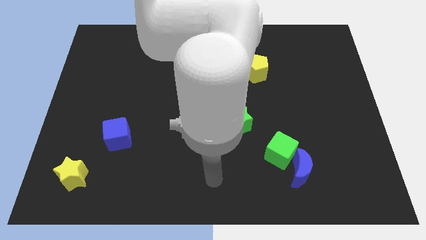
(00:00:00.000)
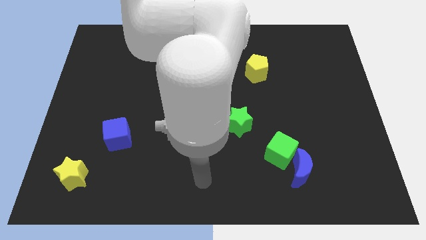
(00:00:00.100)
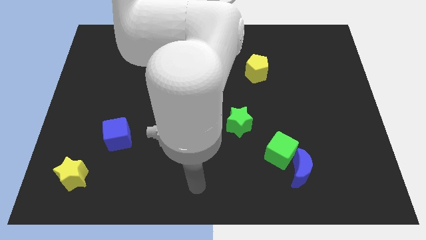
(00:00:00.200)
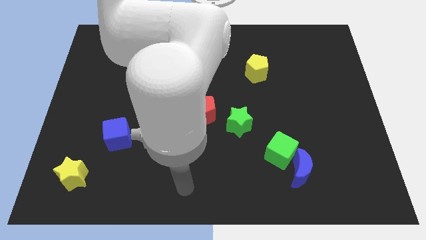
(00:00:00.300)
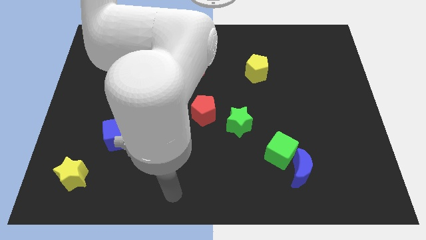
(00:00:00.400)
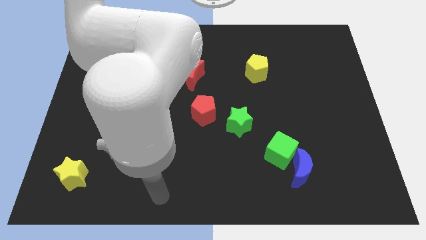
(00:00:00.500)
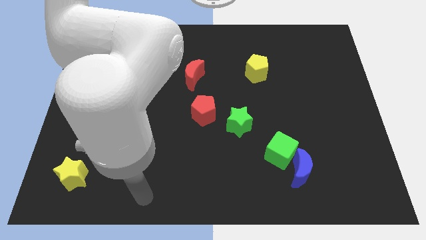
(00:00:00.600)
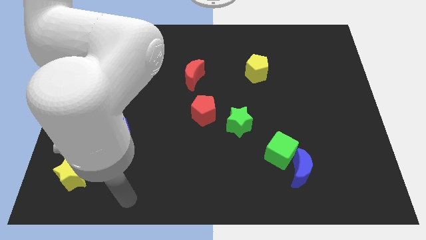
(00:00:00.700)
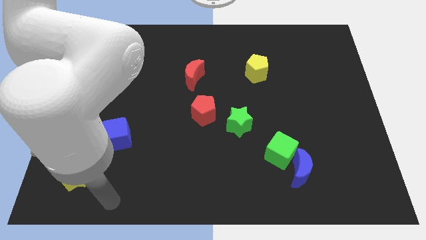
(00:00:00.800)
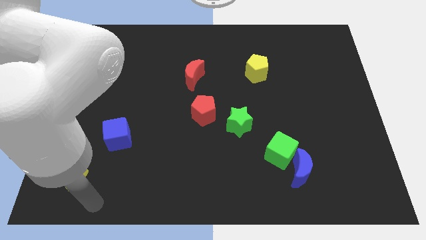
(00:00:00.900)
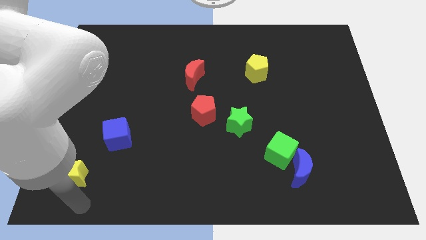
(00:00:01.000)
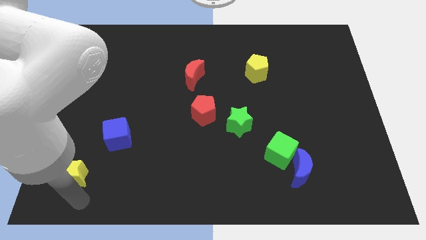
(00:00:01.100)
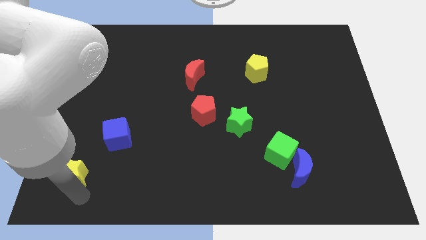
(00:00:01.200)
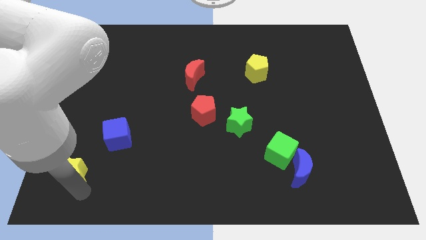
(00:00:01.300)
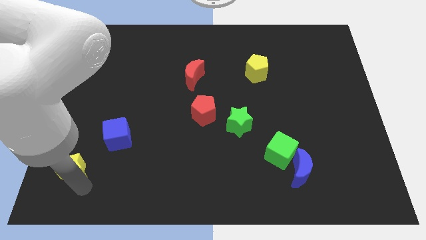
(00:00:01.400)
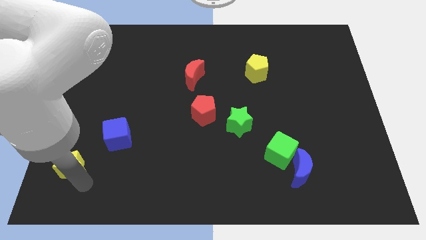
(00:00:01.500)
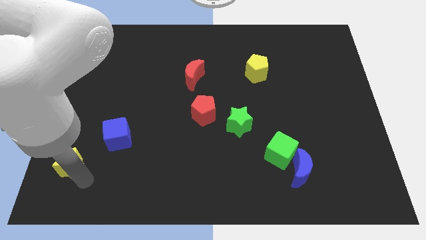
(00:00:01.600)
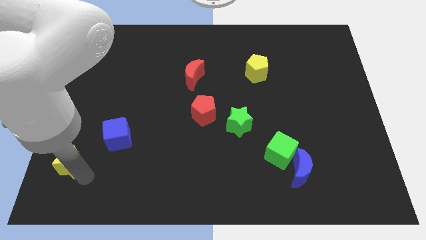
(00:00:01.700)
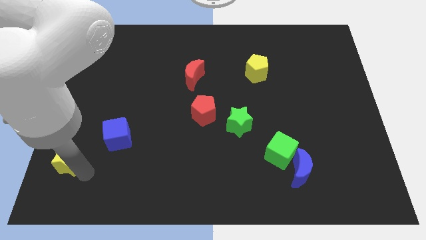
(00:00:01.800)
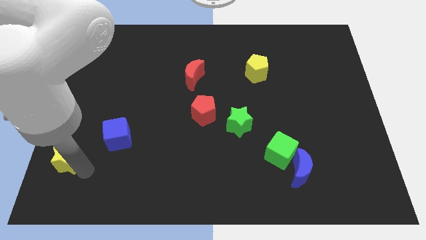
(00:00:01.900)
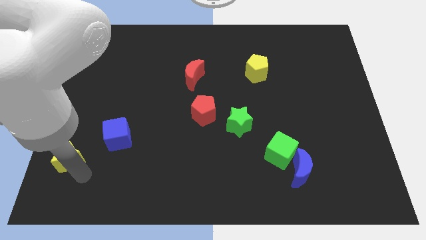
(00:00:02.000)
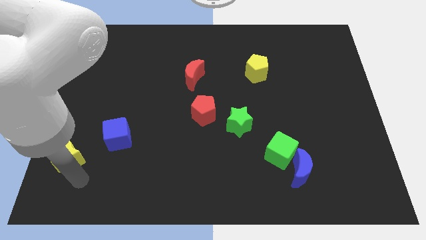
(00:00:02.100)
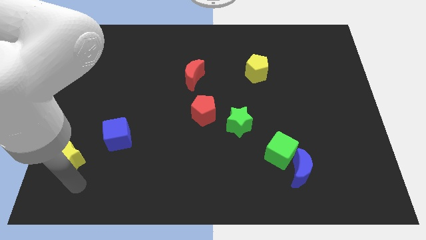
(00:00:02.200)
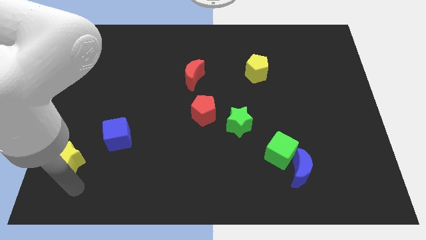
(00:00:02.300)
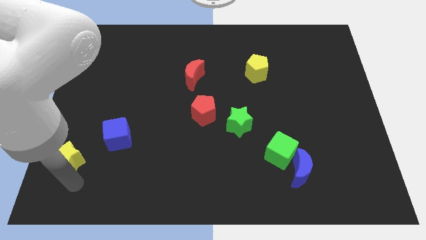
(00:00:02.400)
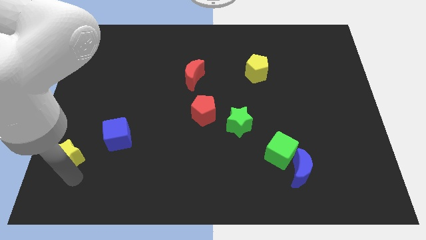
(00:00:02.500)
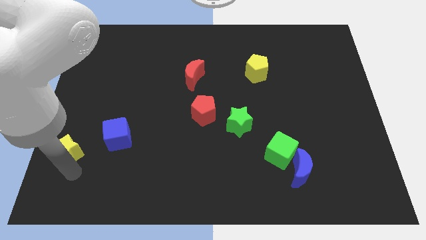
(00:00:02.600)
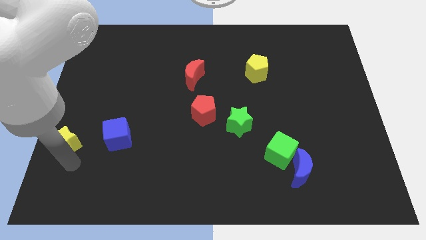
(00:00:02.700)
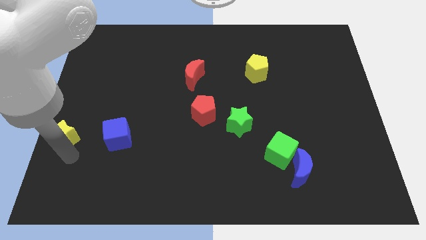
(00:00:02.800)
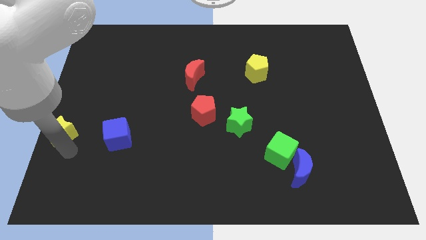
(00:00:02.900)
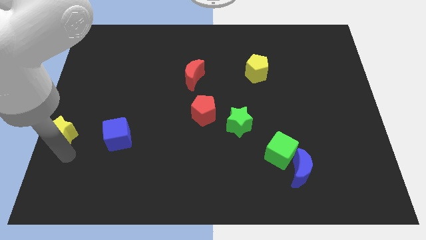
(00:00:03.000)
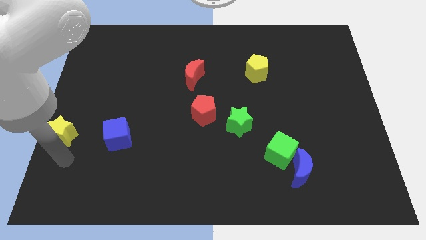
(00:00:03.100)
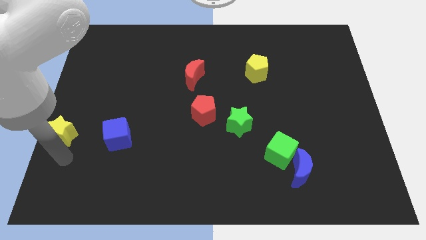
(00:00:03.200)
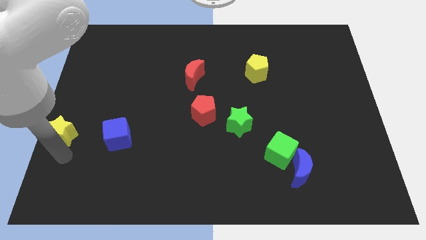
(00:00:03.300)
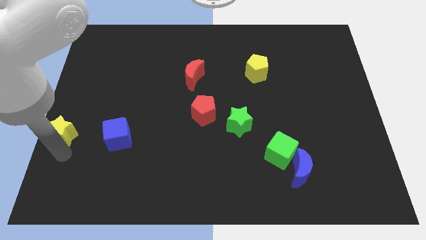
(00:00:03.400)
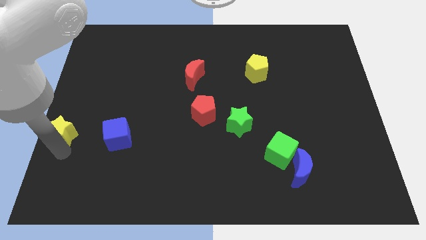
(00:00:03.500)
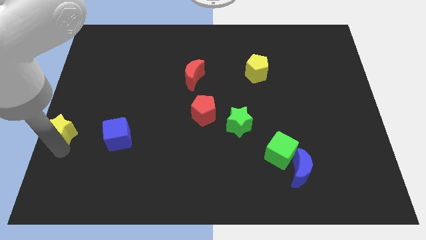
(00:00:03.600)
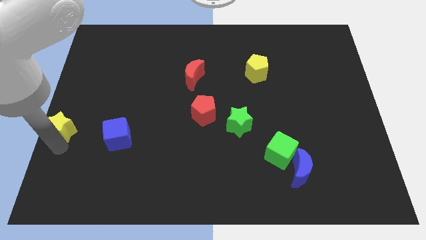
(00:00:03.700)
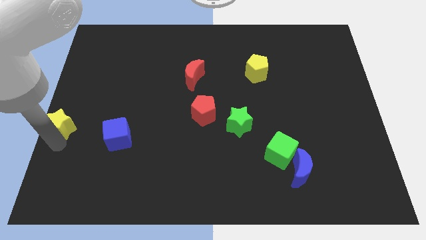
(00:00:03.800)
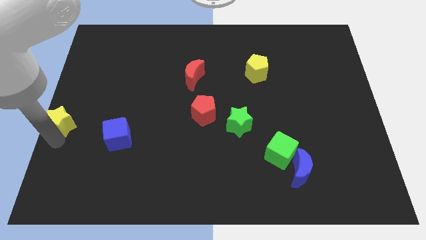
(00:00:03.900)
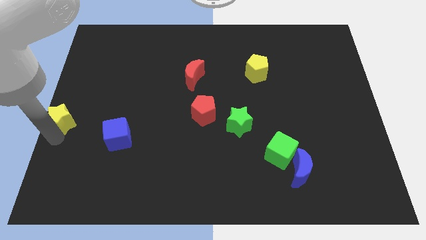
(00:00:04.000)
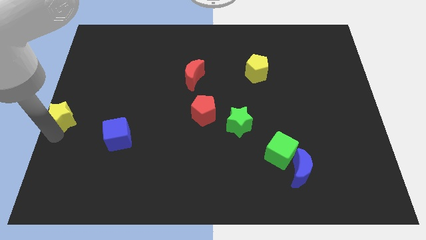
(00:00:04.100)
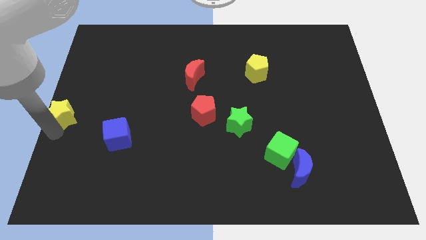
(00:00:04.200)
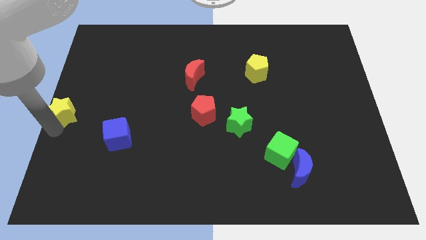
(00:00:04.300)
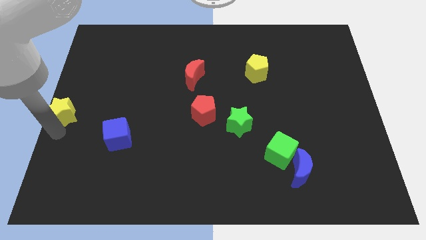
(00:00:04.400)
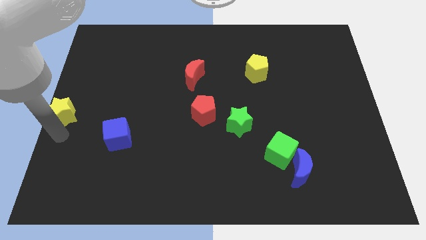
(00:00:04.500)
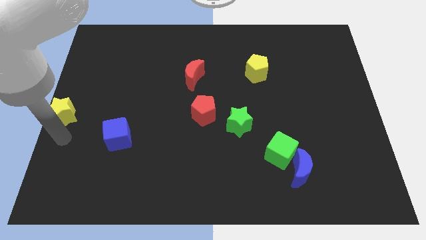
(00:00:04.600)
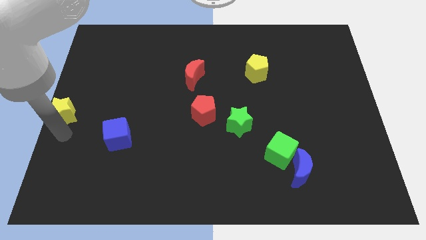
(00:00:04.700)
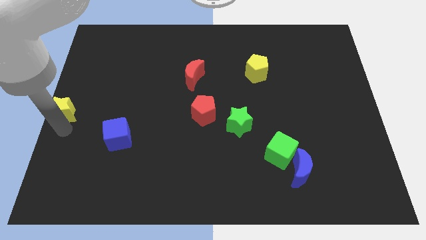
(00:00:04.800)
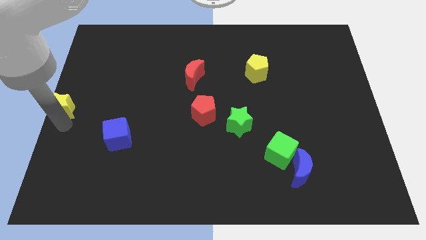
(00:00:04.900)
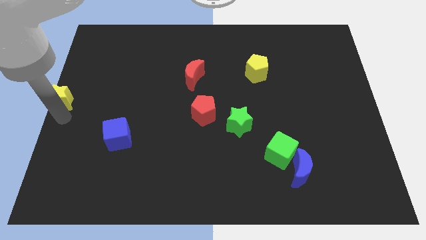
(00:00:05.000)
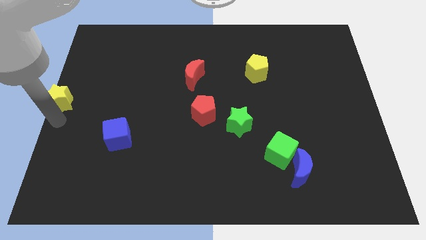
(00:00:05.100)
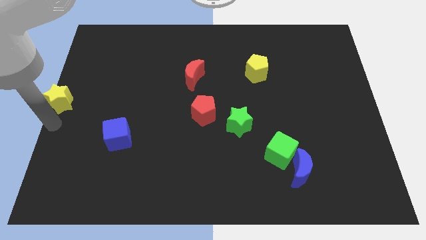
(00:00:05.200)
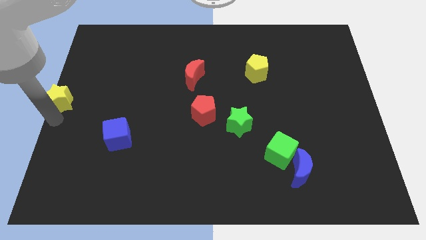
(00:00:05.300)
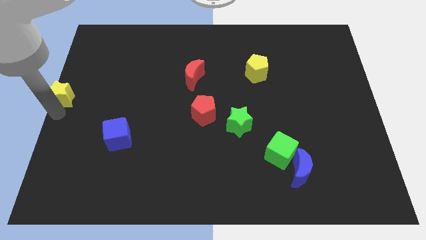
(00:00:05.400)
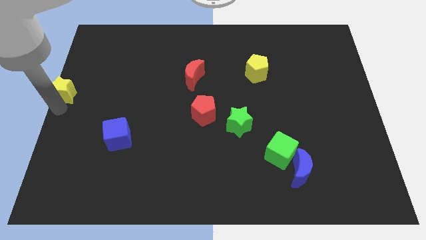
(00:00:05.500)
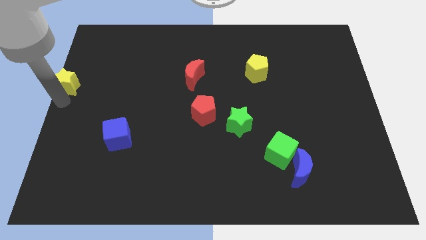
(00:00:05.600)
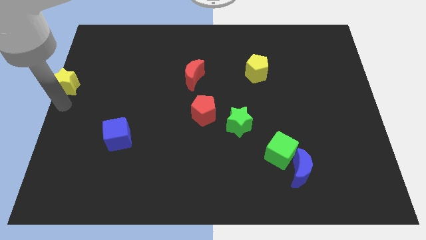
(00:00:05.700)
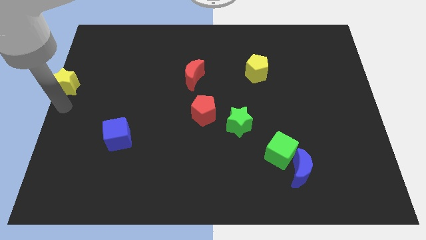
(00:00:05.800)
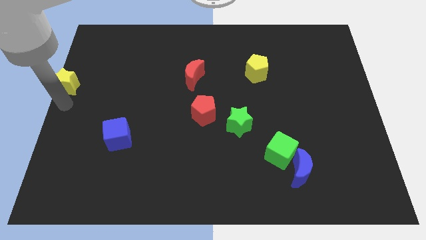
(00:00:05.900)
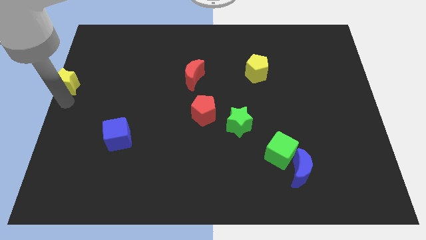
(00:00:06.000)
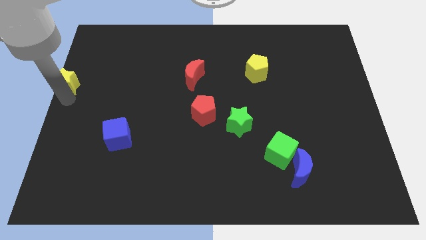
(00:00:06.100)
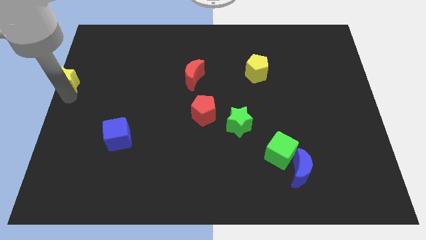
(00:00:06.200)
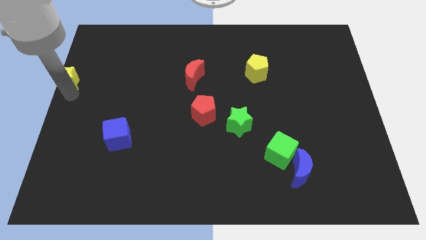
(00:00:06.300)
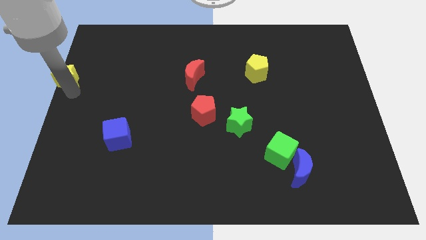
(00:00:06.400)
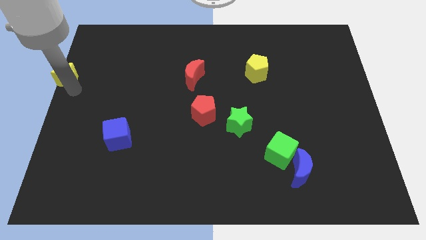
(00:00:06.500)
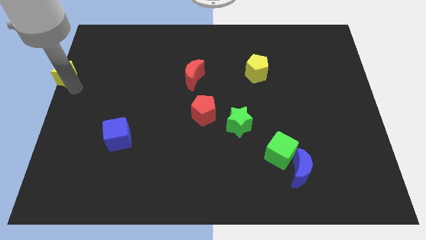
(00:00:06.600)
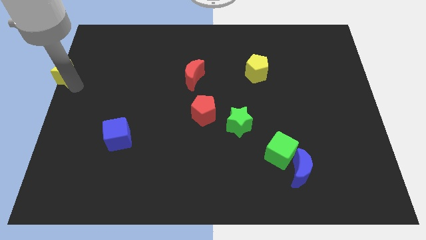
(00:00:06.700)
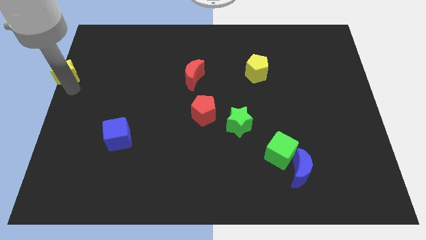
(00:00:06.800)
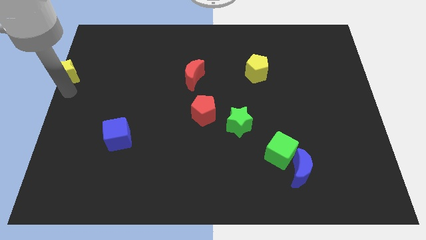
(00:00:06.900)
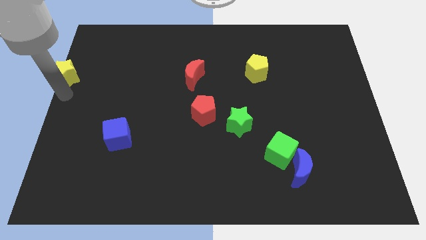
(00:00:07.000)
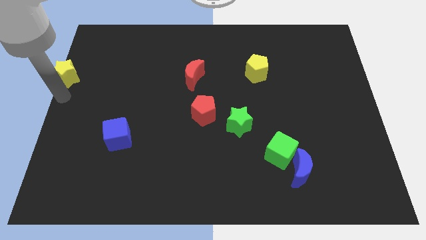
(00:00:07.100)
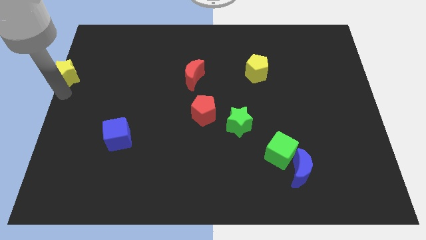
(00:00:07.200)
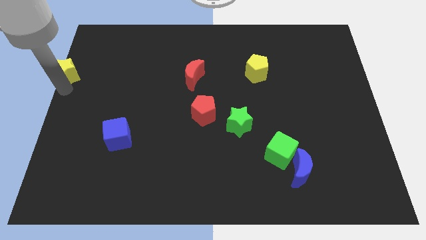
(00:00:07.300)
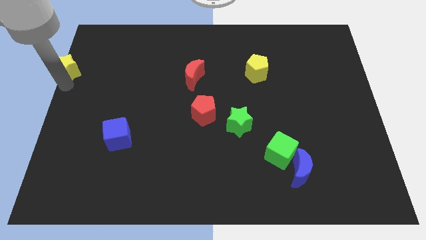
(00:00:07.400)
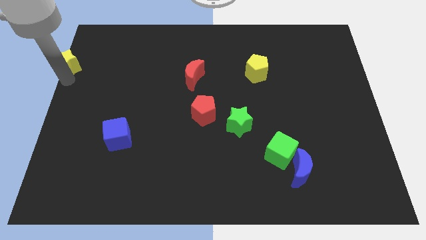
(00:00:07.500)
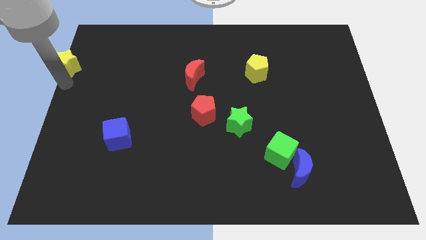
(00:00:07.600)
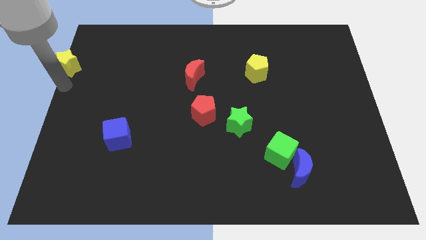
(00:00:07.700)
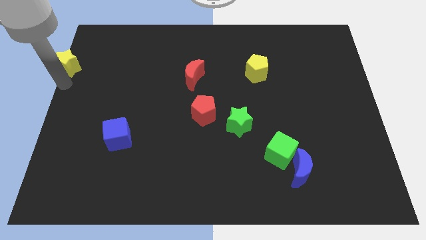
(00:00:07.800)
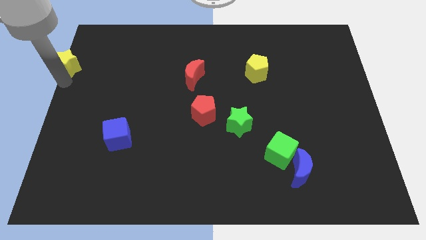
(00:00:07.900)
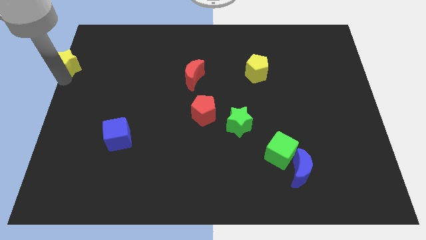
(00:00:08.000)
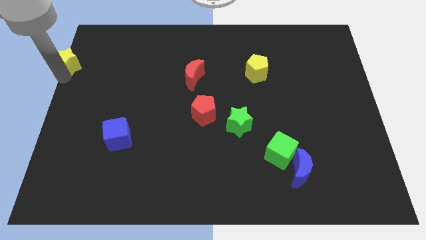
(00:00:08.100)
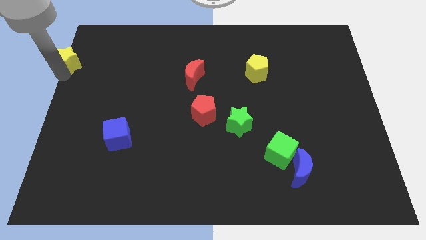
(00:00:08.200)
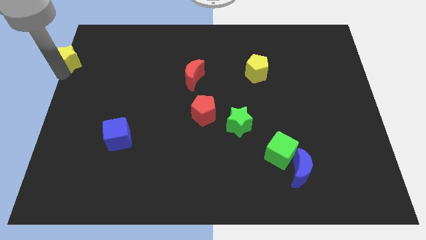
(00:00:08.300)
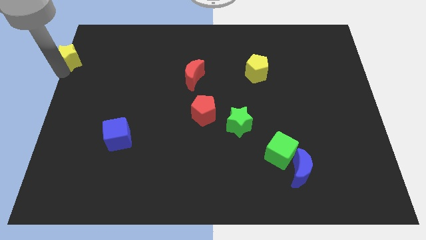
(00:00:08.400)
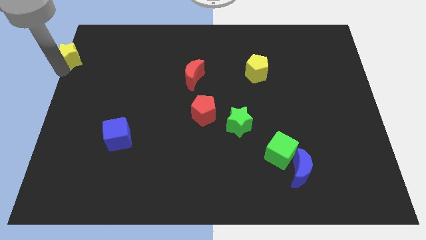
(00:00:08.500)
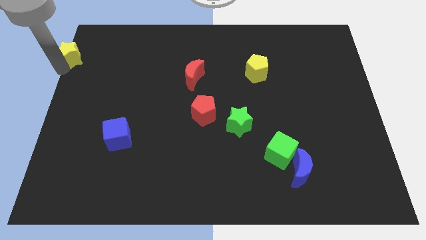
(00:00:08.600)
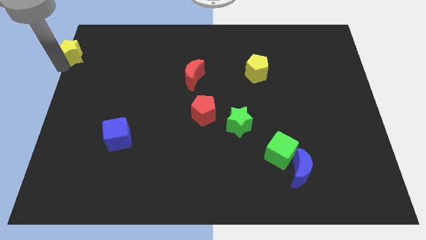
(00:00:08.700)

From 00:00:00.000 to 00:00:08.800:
put the yellow star to the top left corner
